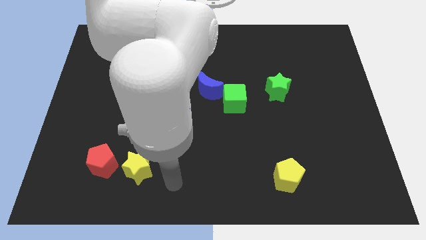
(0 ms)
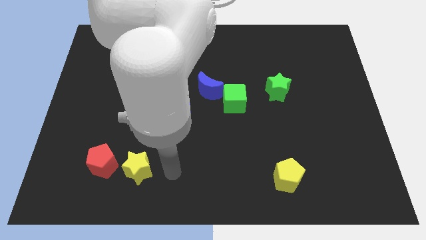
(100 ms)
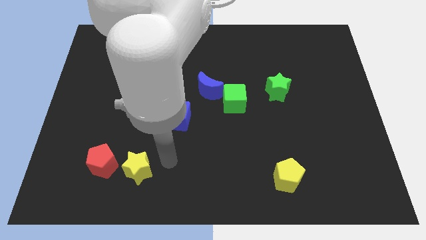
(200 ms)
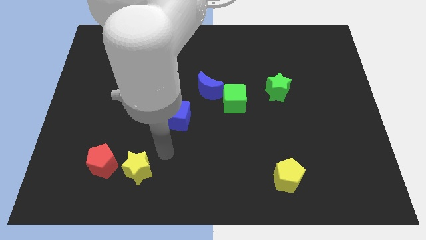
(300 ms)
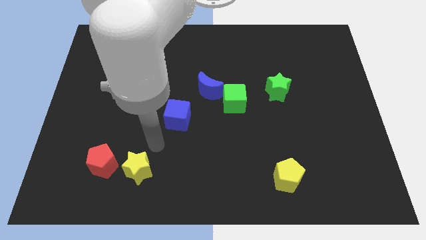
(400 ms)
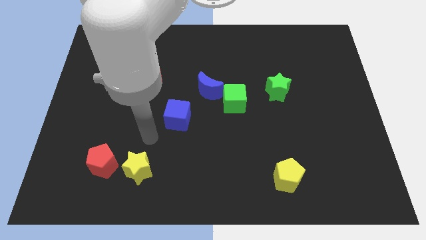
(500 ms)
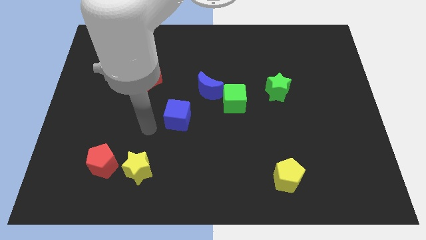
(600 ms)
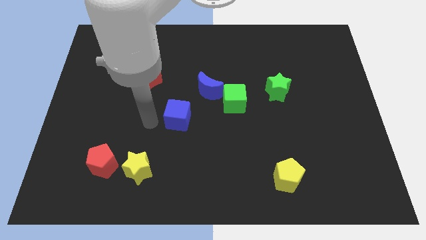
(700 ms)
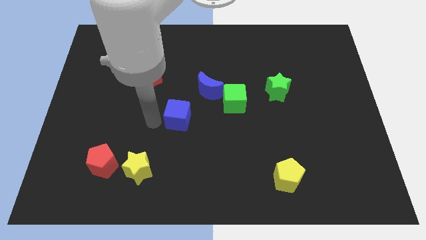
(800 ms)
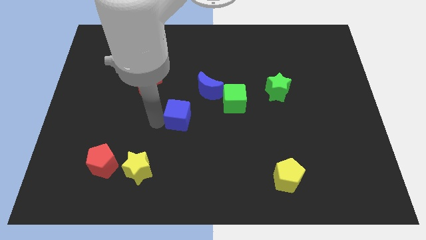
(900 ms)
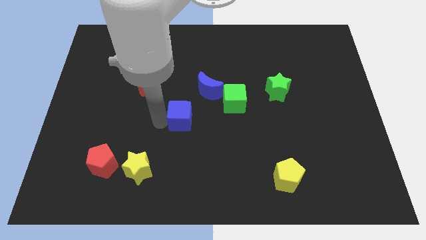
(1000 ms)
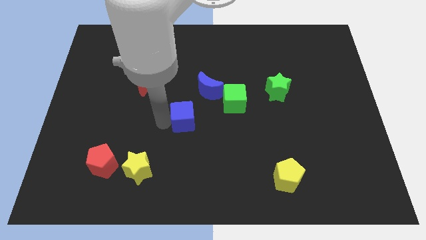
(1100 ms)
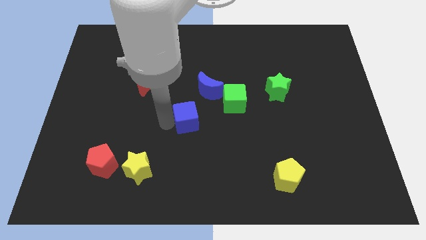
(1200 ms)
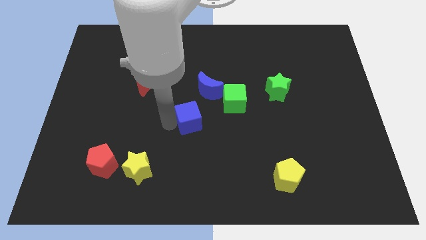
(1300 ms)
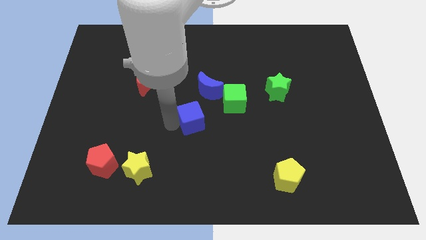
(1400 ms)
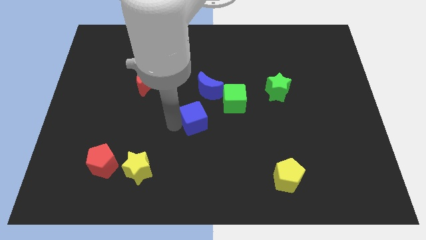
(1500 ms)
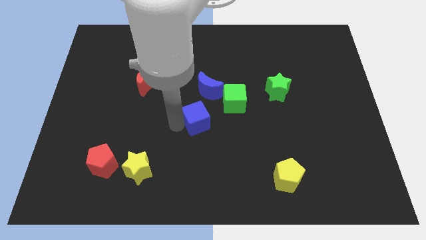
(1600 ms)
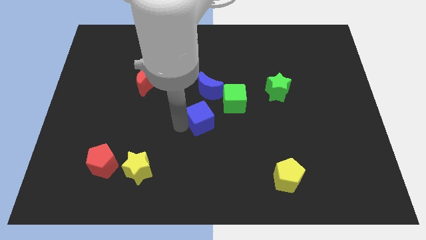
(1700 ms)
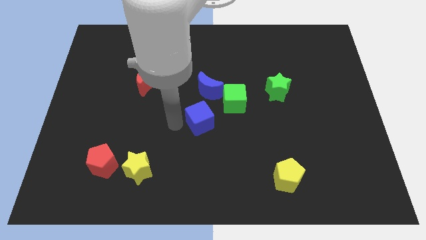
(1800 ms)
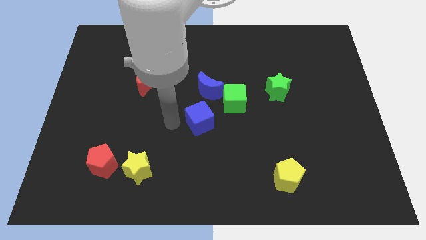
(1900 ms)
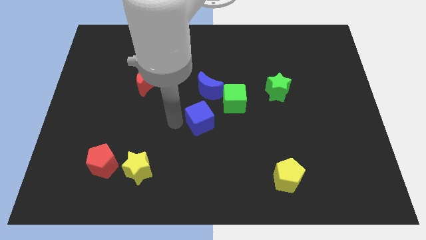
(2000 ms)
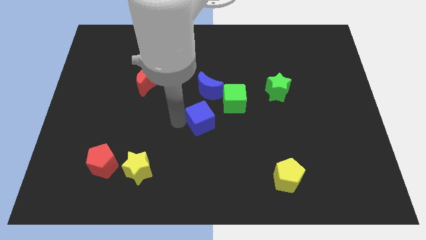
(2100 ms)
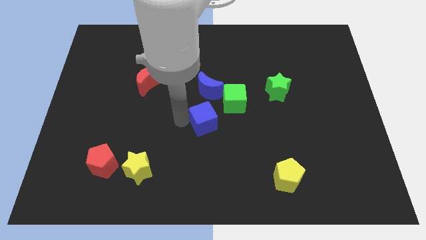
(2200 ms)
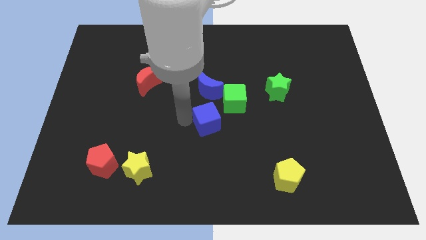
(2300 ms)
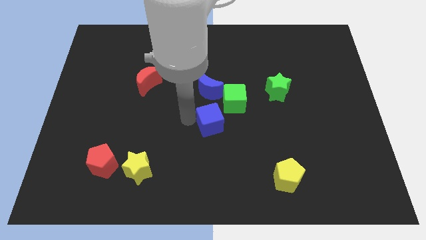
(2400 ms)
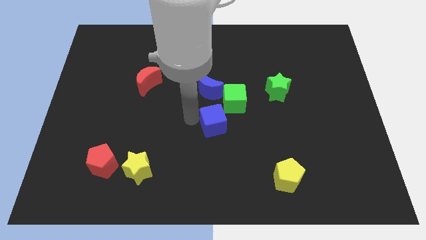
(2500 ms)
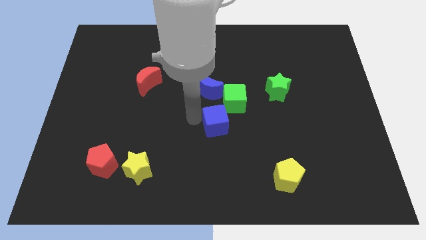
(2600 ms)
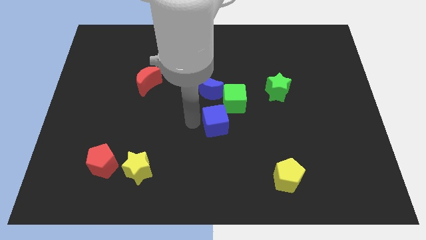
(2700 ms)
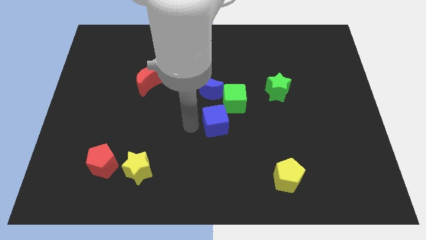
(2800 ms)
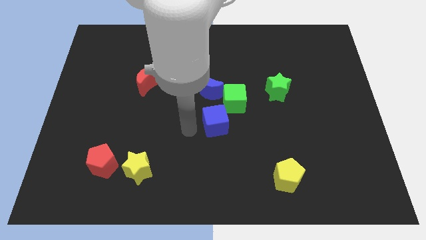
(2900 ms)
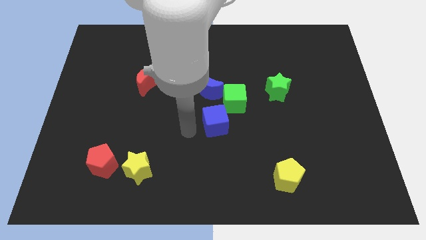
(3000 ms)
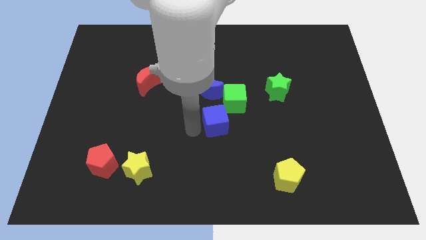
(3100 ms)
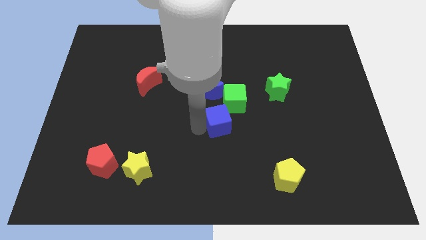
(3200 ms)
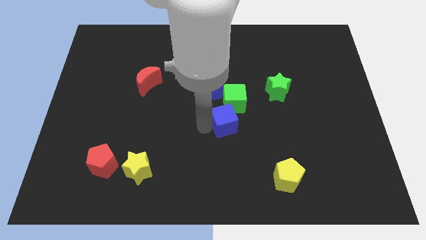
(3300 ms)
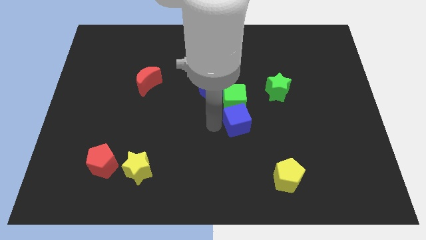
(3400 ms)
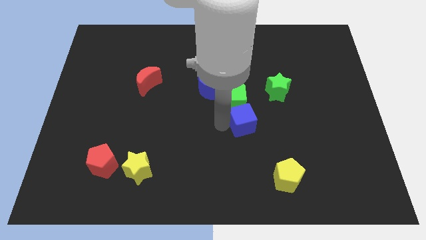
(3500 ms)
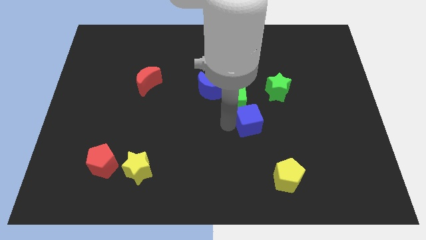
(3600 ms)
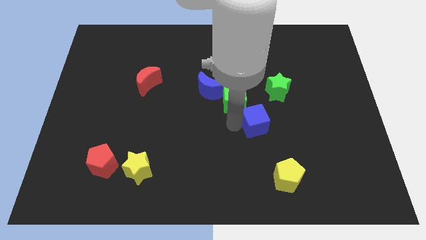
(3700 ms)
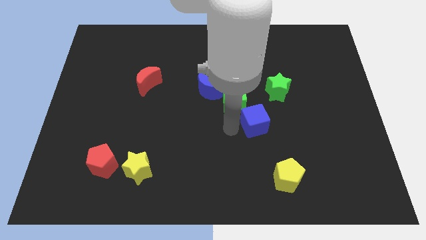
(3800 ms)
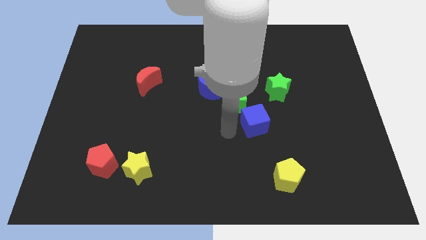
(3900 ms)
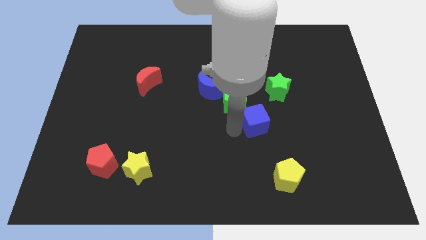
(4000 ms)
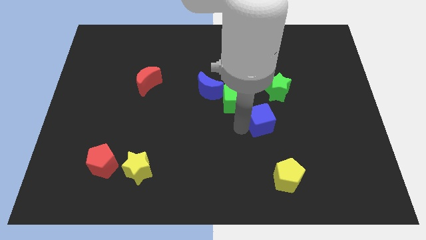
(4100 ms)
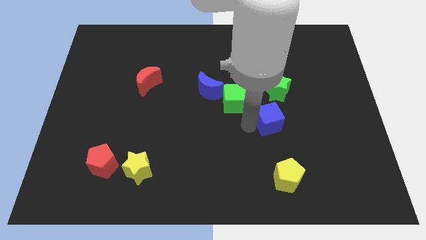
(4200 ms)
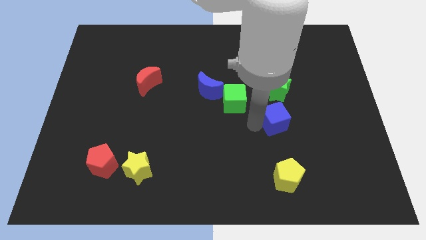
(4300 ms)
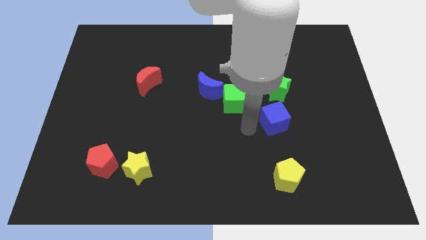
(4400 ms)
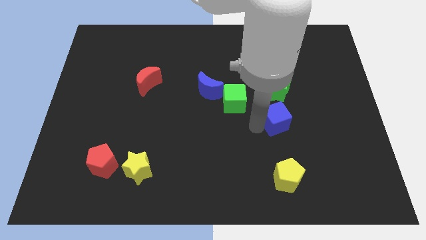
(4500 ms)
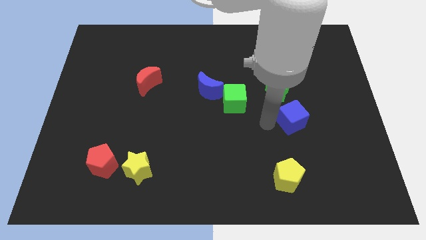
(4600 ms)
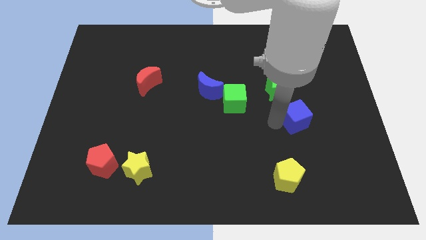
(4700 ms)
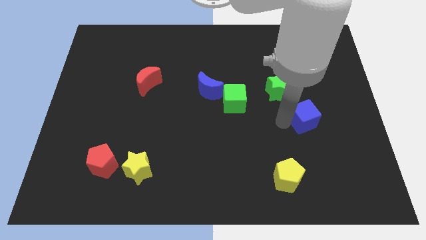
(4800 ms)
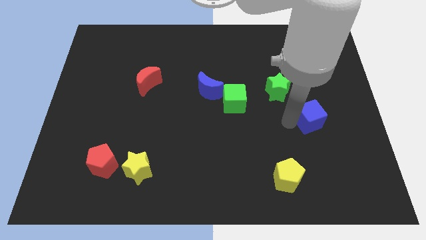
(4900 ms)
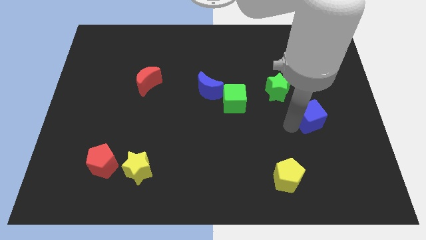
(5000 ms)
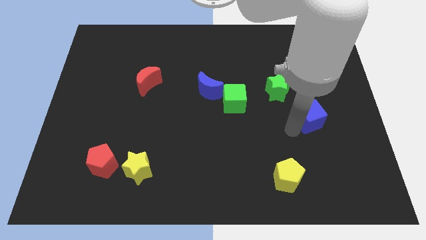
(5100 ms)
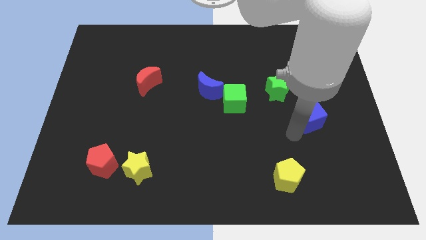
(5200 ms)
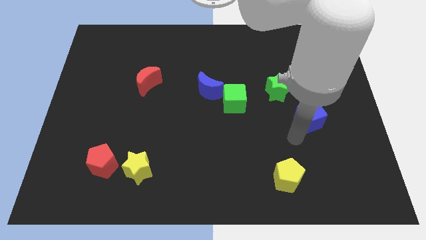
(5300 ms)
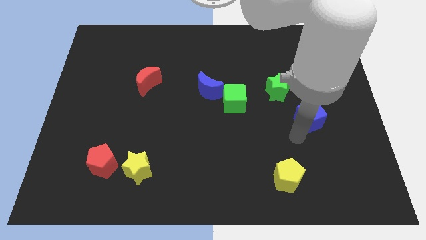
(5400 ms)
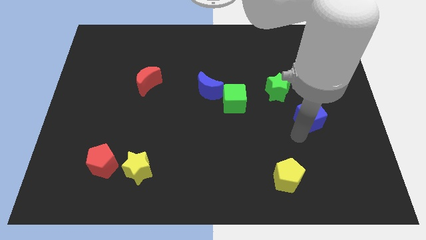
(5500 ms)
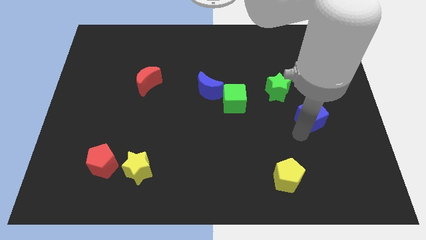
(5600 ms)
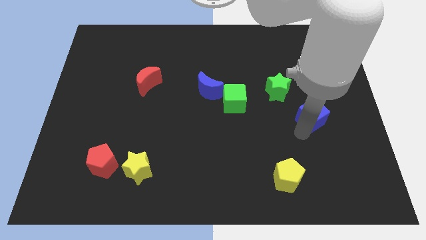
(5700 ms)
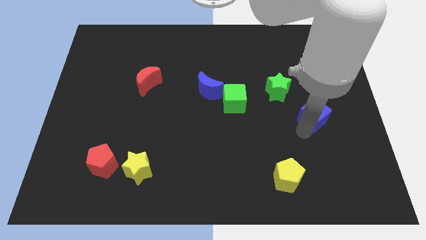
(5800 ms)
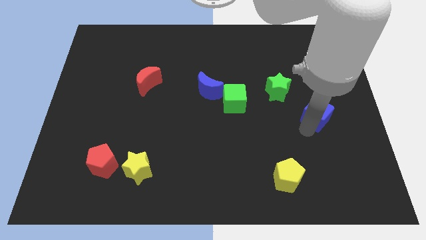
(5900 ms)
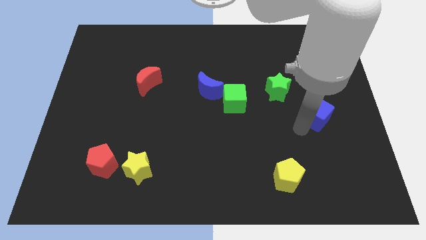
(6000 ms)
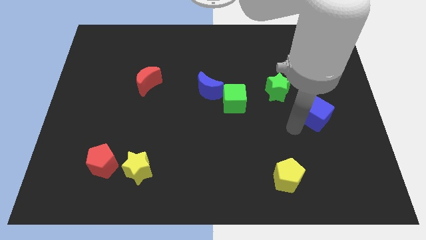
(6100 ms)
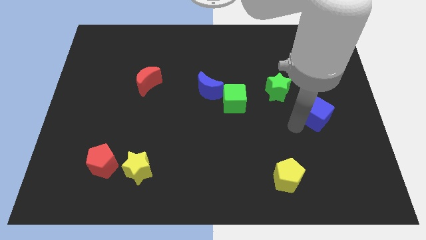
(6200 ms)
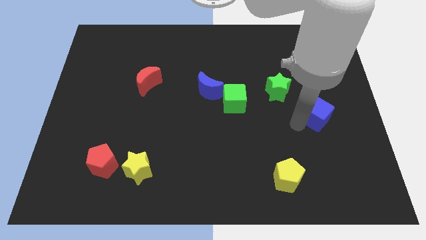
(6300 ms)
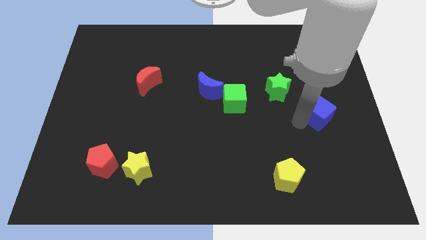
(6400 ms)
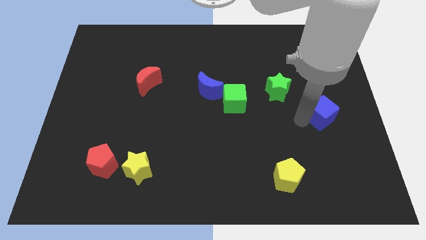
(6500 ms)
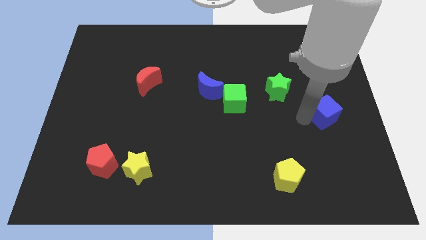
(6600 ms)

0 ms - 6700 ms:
push the blue cube to the right side

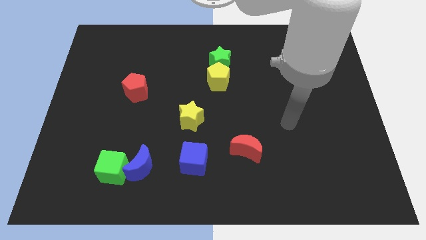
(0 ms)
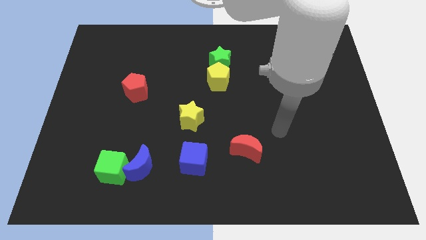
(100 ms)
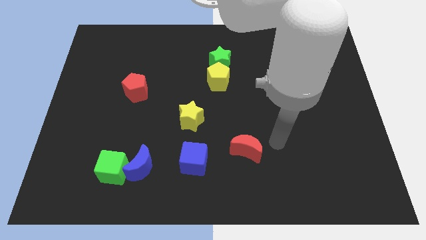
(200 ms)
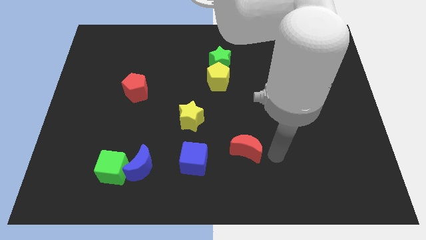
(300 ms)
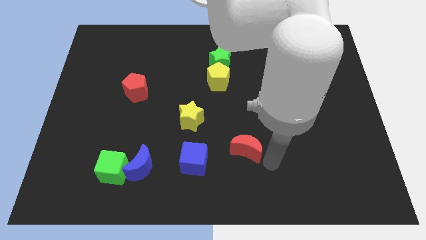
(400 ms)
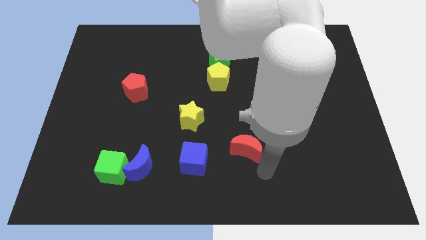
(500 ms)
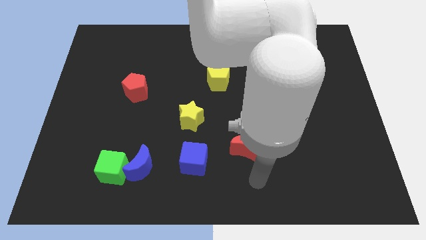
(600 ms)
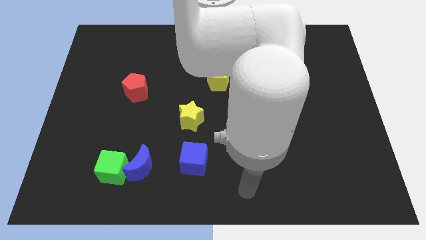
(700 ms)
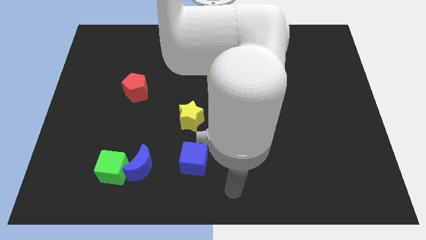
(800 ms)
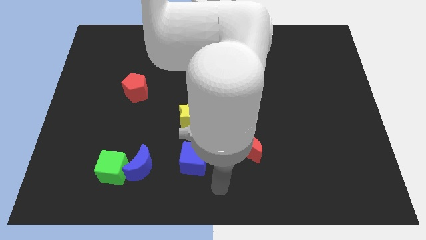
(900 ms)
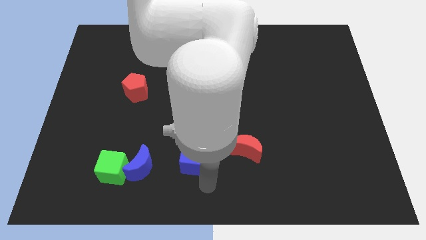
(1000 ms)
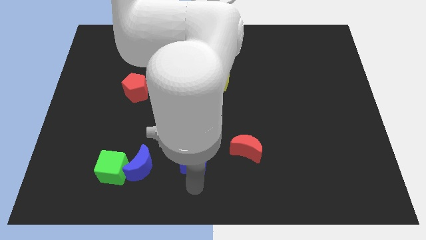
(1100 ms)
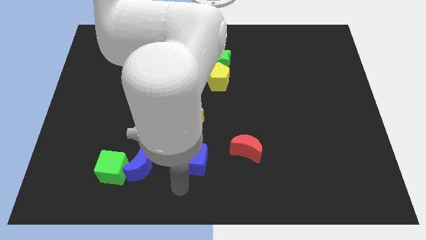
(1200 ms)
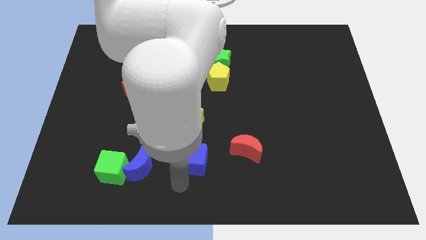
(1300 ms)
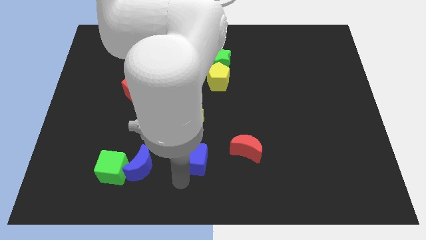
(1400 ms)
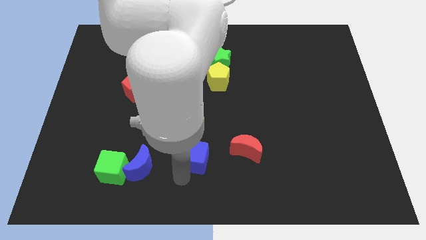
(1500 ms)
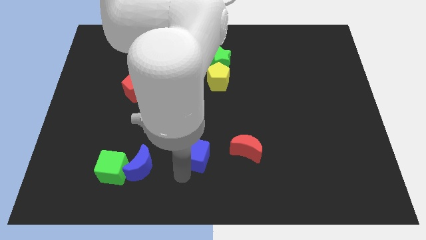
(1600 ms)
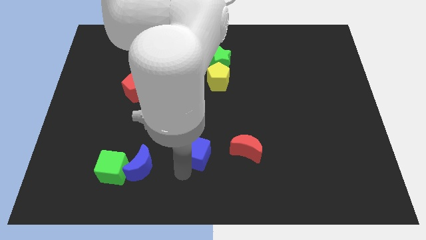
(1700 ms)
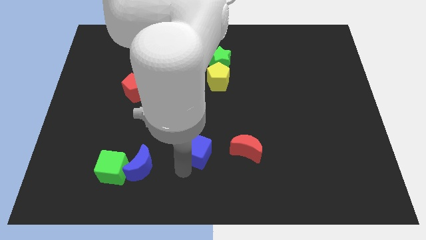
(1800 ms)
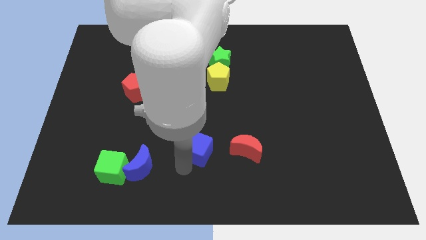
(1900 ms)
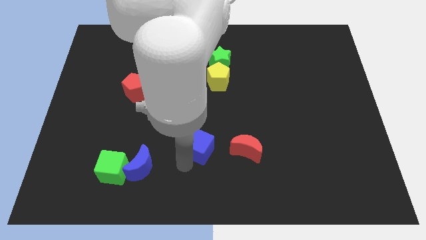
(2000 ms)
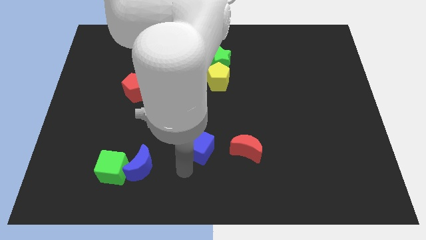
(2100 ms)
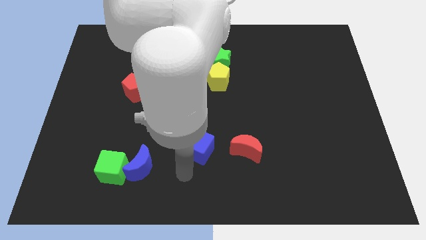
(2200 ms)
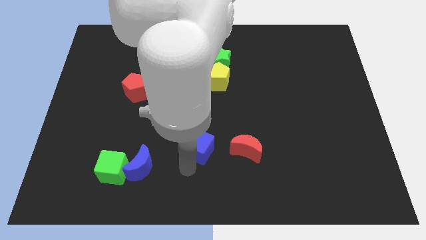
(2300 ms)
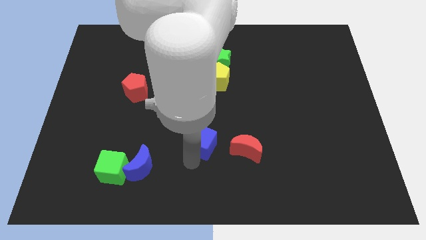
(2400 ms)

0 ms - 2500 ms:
push the blue cube to the center
